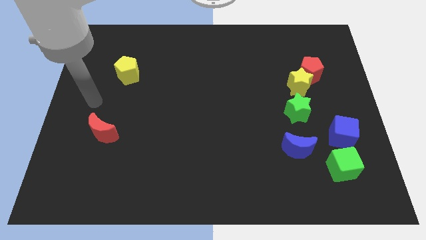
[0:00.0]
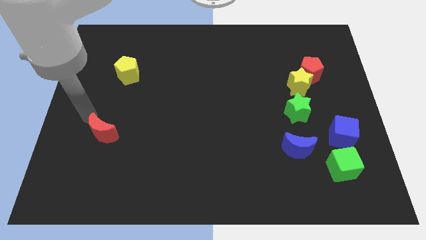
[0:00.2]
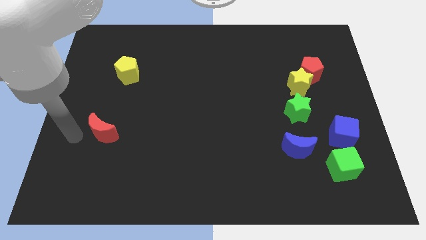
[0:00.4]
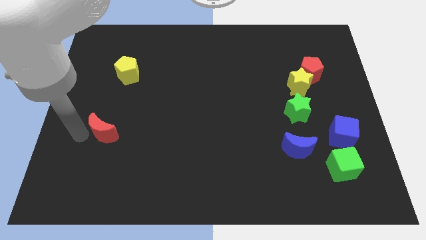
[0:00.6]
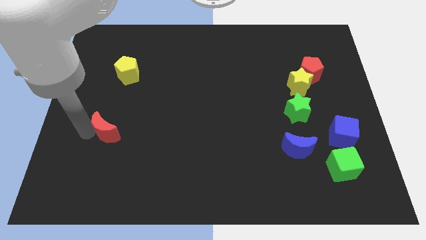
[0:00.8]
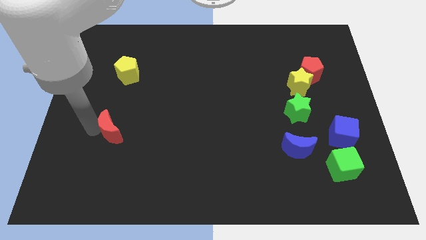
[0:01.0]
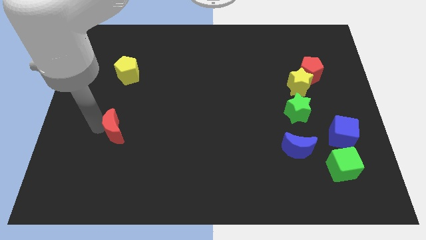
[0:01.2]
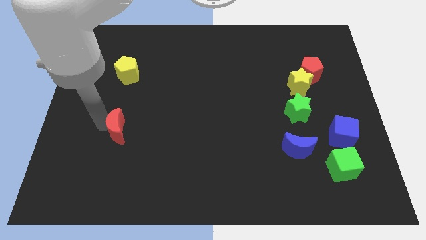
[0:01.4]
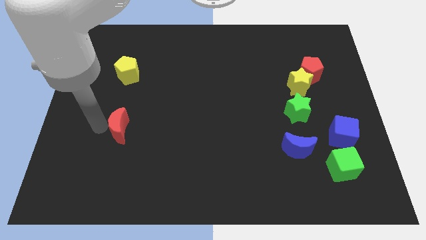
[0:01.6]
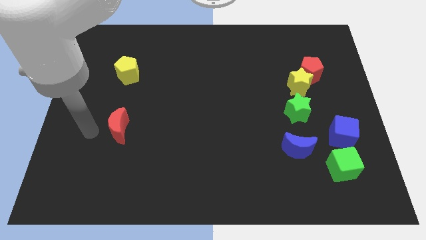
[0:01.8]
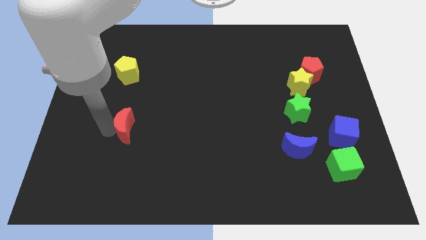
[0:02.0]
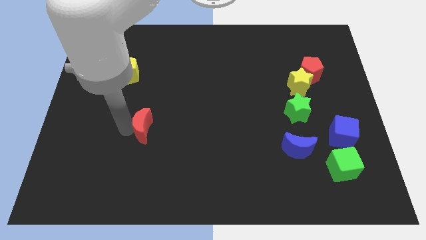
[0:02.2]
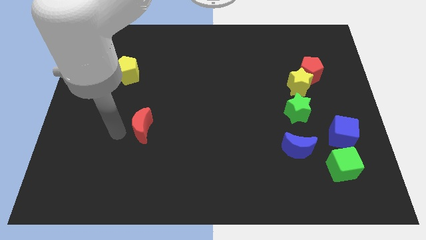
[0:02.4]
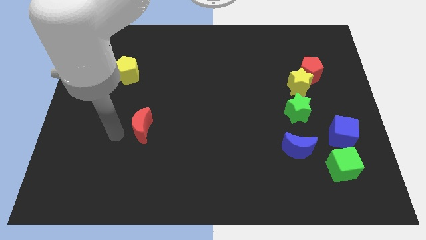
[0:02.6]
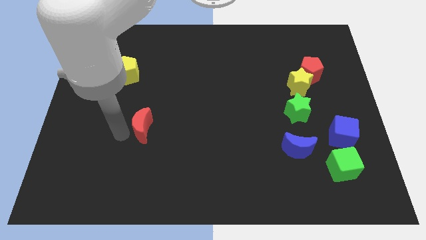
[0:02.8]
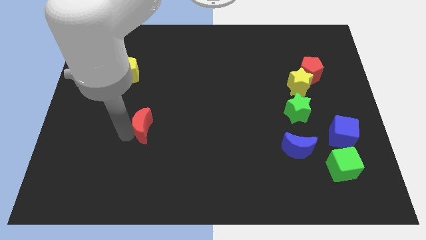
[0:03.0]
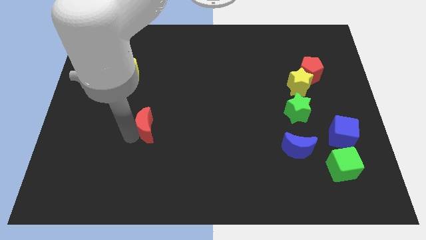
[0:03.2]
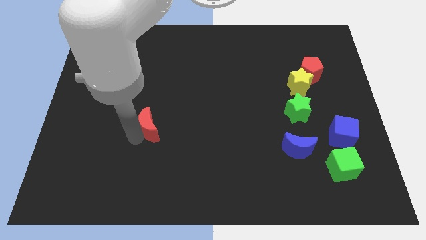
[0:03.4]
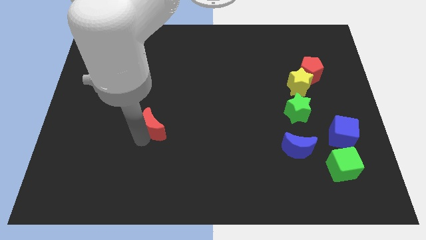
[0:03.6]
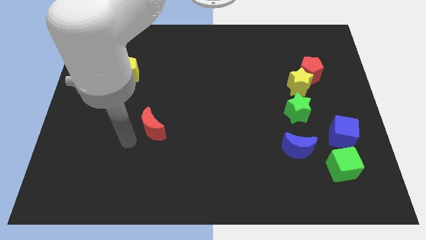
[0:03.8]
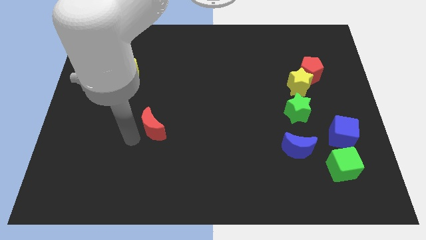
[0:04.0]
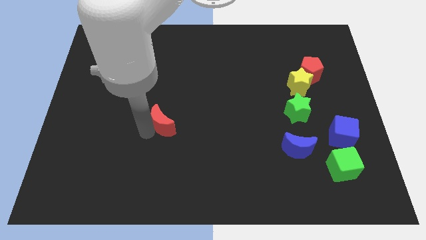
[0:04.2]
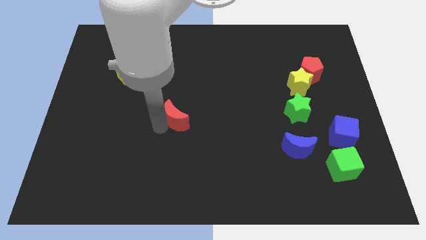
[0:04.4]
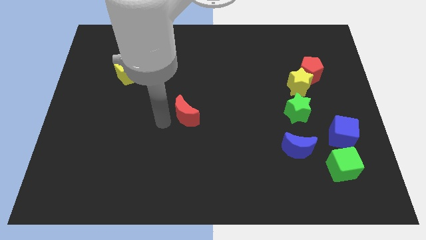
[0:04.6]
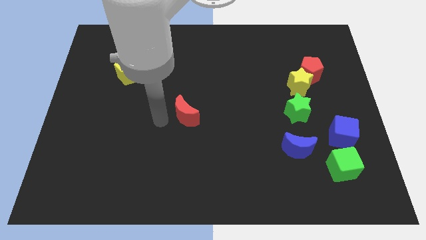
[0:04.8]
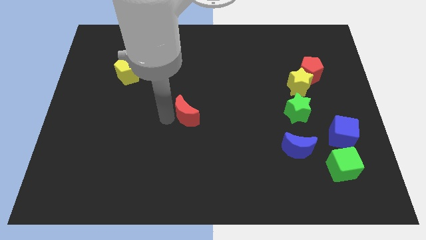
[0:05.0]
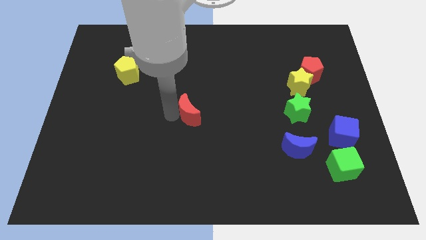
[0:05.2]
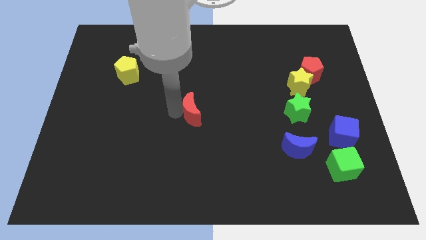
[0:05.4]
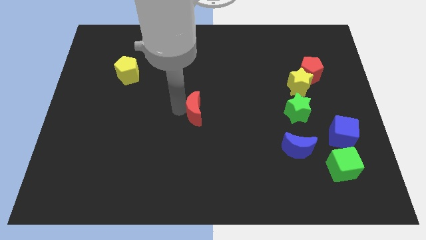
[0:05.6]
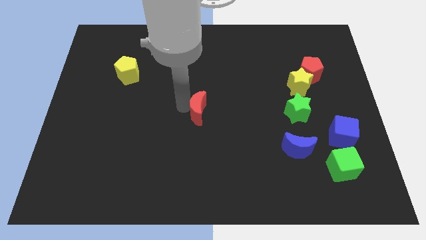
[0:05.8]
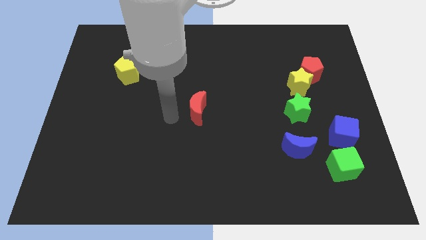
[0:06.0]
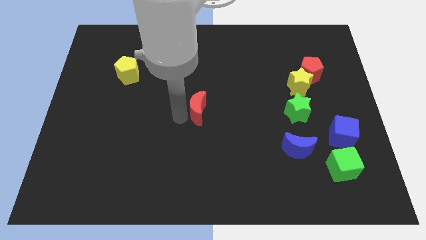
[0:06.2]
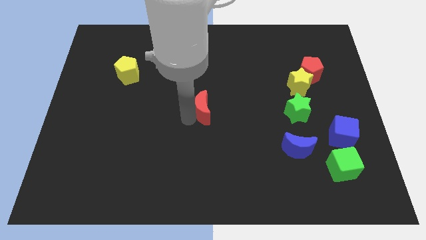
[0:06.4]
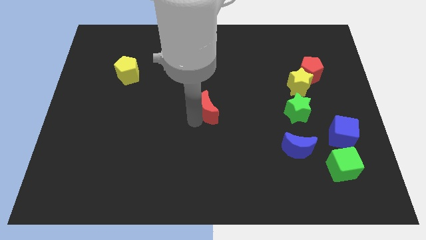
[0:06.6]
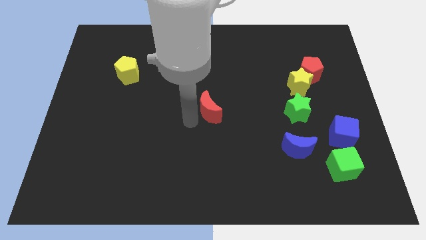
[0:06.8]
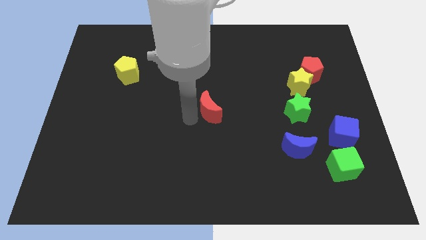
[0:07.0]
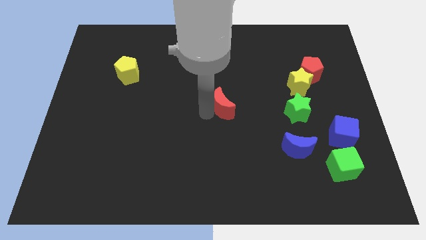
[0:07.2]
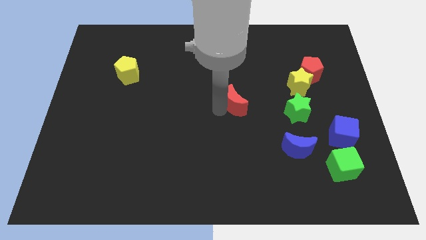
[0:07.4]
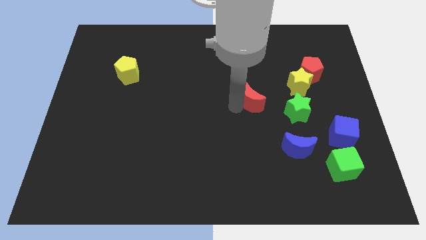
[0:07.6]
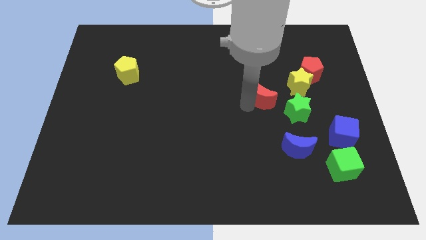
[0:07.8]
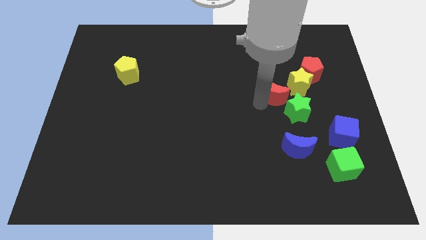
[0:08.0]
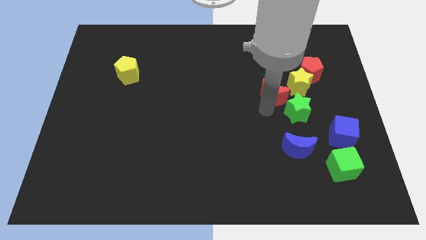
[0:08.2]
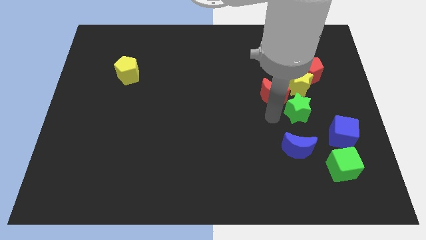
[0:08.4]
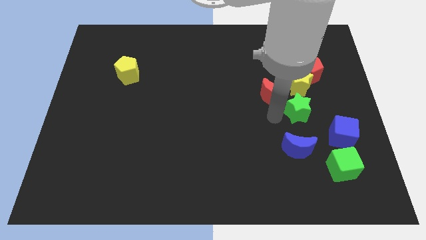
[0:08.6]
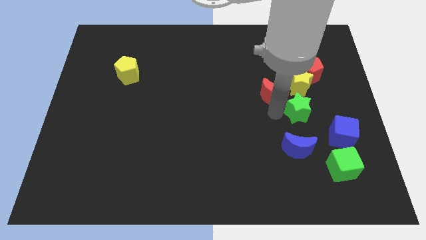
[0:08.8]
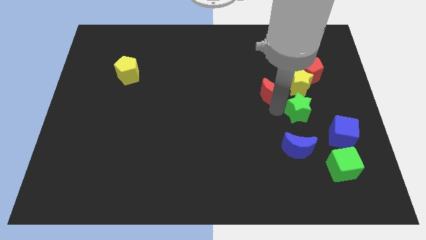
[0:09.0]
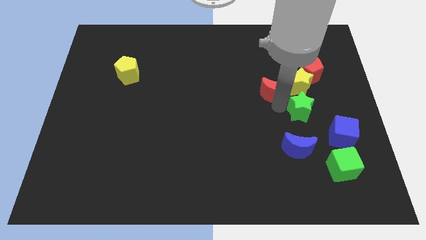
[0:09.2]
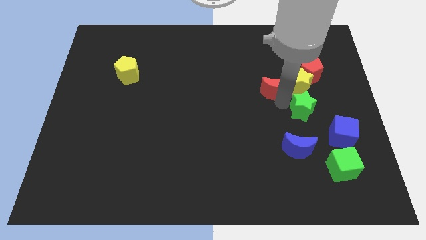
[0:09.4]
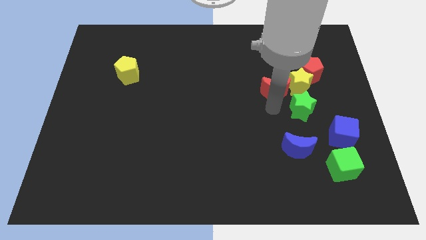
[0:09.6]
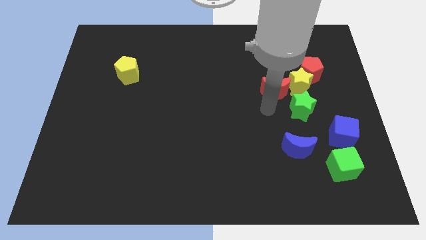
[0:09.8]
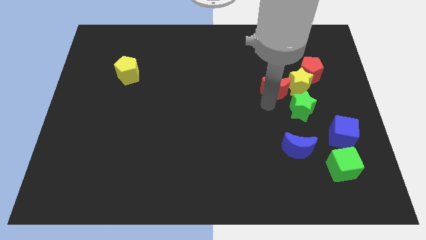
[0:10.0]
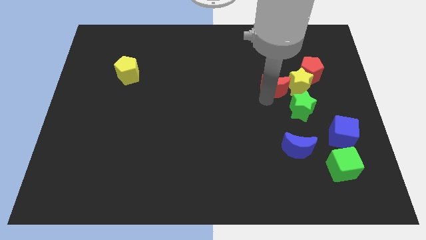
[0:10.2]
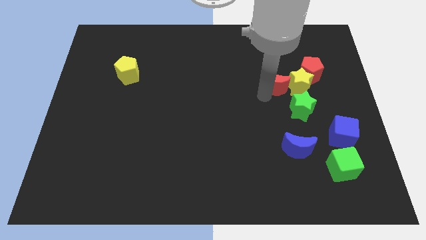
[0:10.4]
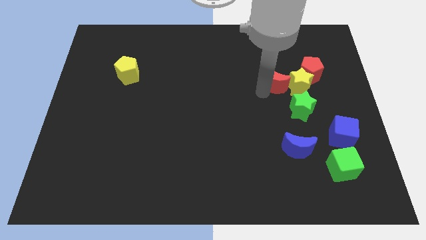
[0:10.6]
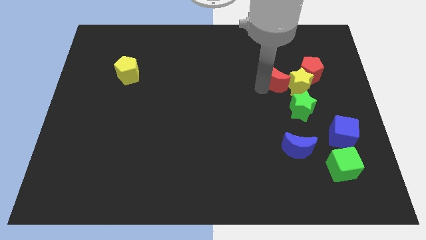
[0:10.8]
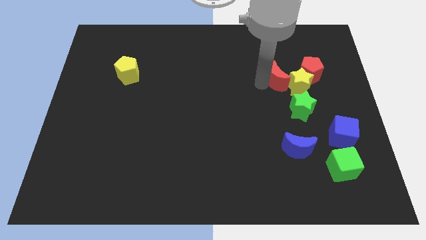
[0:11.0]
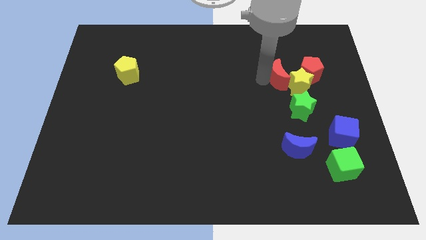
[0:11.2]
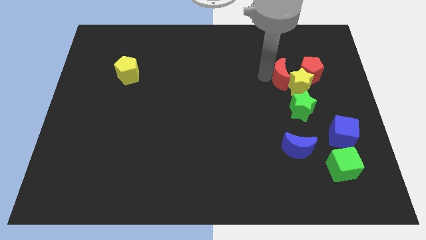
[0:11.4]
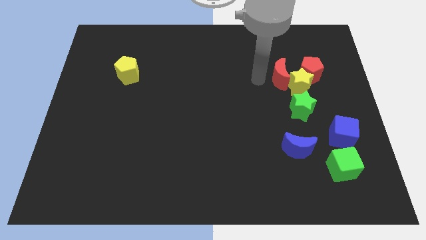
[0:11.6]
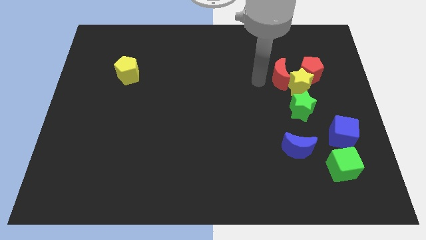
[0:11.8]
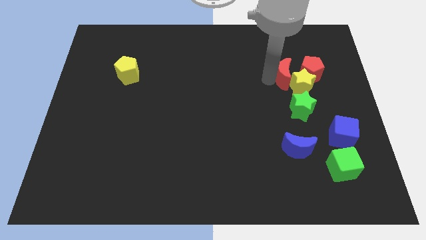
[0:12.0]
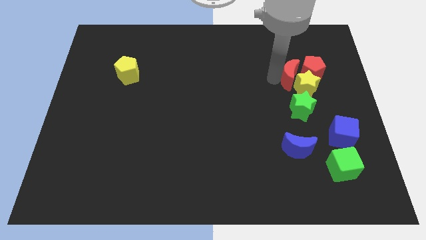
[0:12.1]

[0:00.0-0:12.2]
move the red moon towards the red pentagon

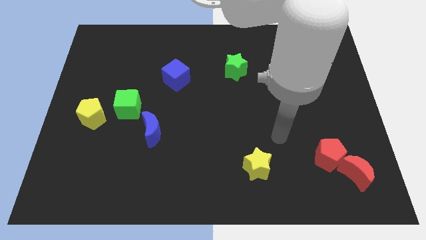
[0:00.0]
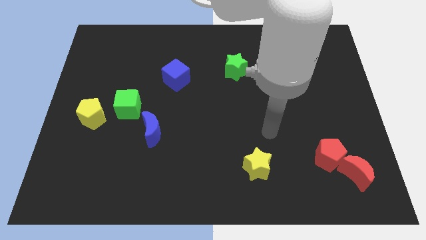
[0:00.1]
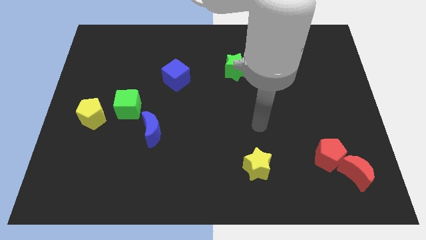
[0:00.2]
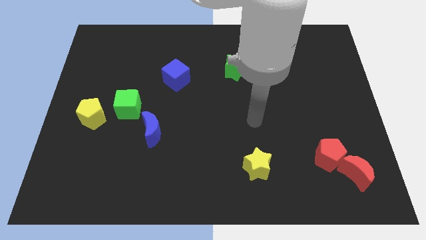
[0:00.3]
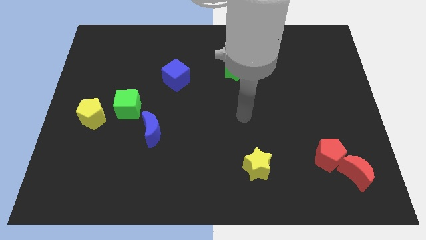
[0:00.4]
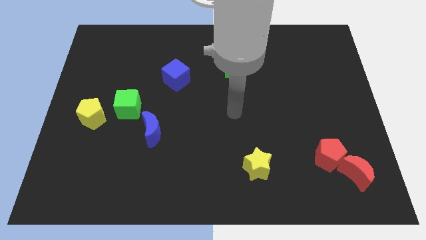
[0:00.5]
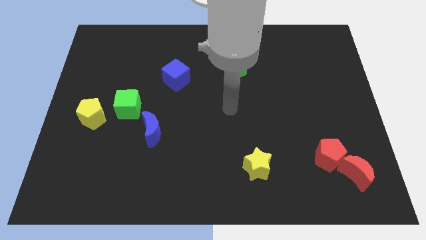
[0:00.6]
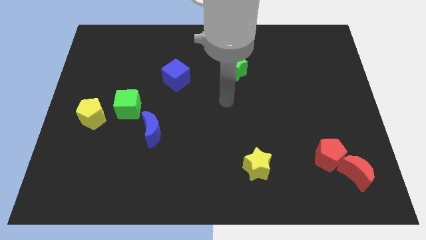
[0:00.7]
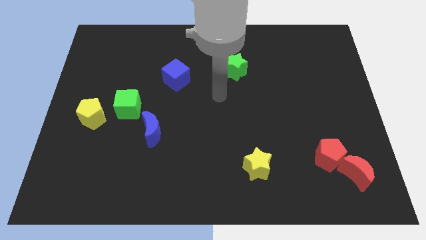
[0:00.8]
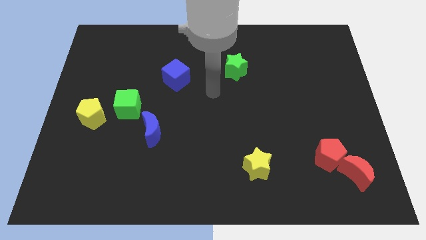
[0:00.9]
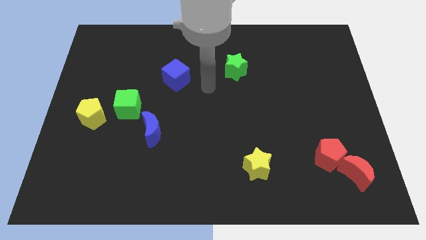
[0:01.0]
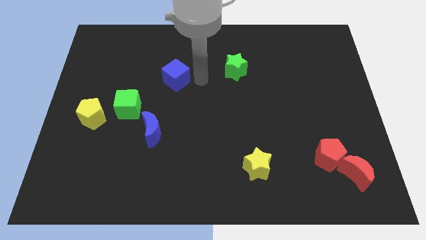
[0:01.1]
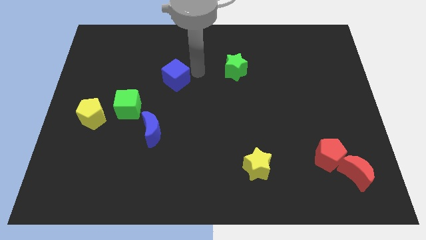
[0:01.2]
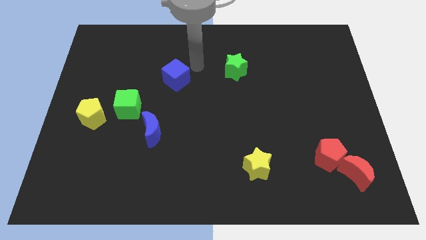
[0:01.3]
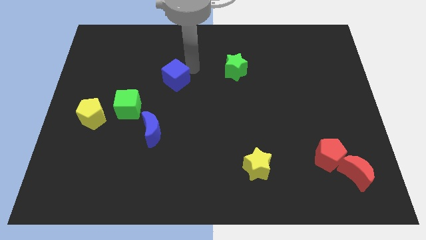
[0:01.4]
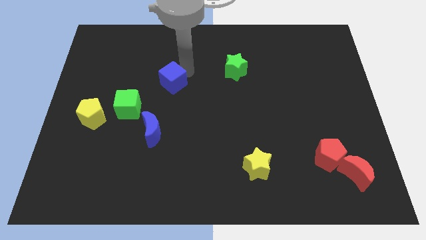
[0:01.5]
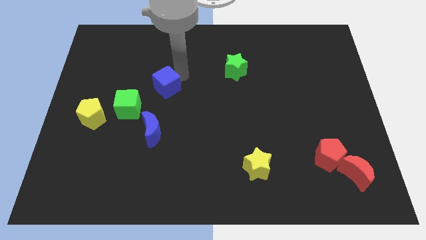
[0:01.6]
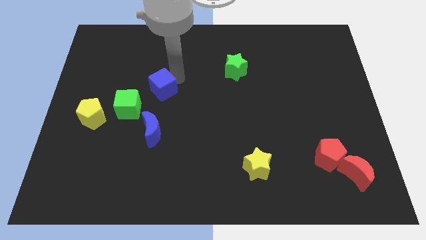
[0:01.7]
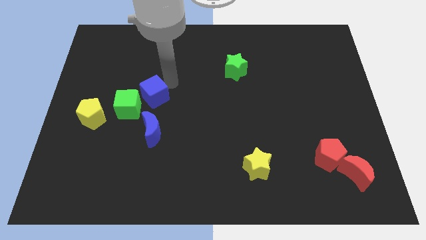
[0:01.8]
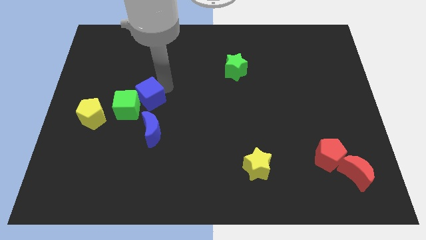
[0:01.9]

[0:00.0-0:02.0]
move the blue cube to the green cube
